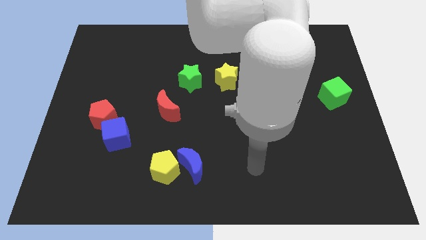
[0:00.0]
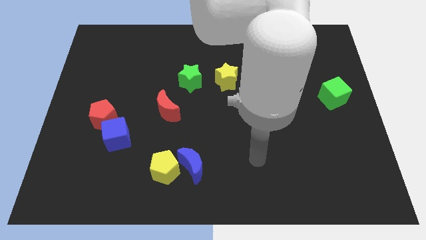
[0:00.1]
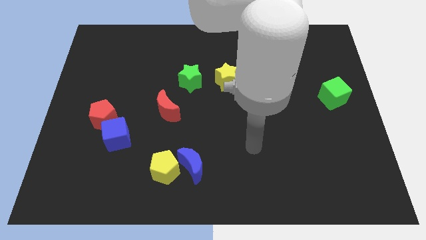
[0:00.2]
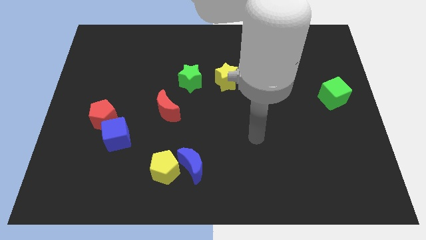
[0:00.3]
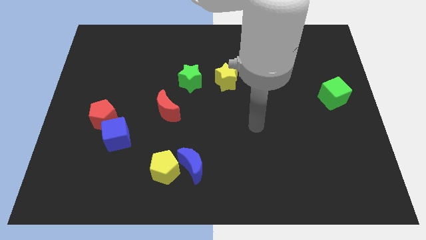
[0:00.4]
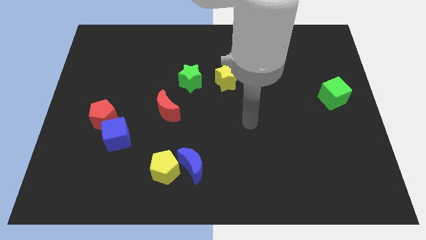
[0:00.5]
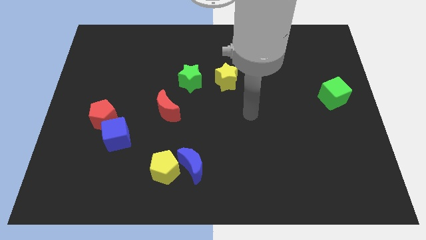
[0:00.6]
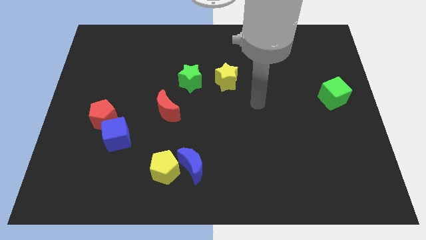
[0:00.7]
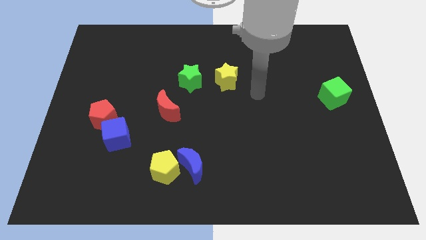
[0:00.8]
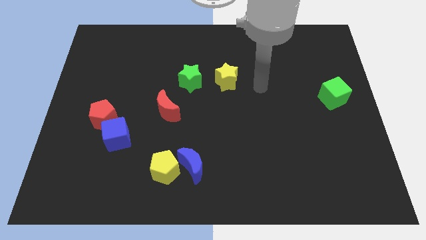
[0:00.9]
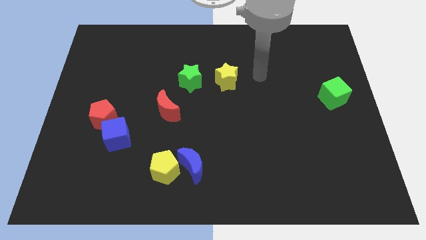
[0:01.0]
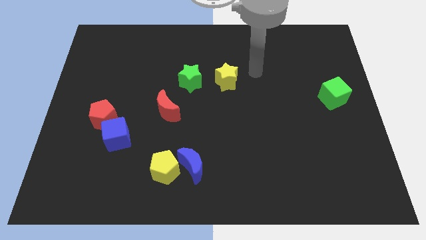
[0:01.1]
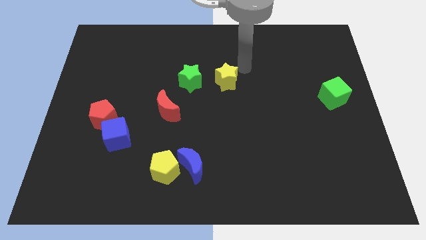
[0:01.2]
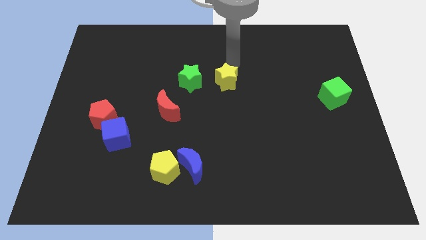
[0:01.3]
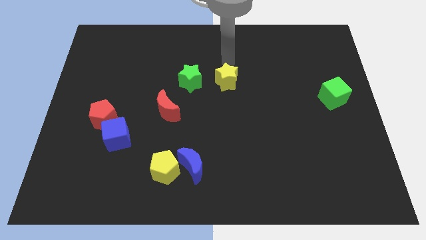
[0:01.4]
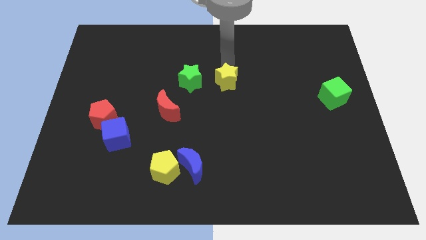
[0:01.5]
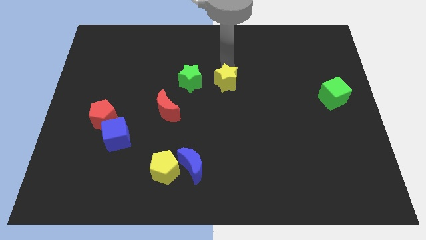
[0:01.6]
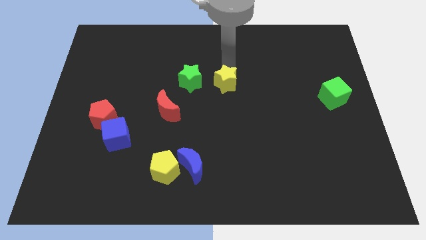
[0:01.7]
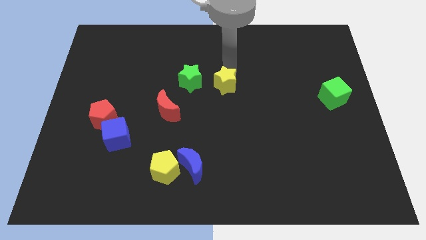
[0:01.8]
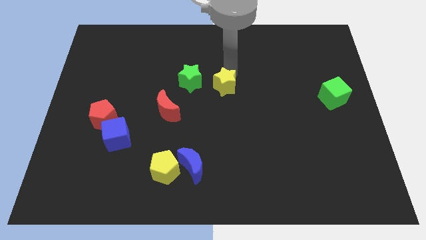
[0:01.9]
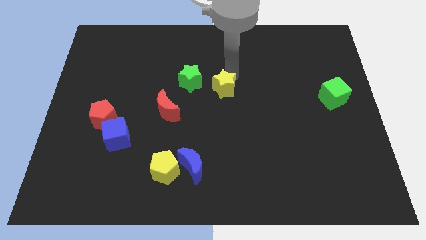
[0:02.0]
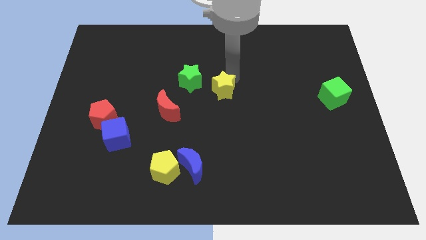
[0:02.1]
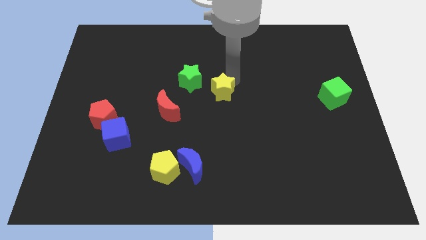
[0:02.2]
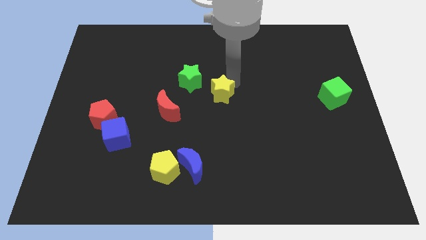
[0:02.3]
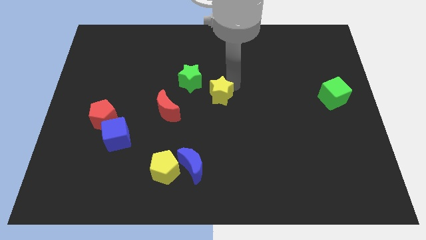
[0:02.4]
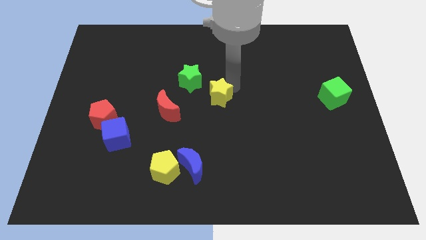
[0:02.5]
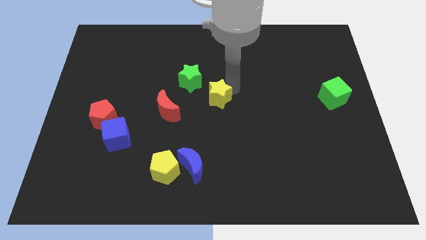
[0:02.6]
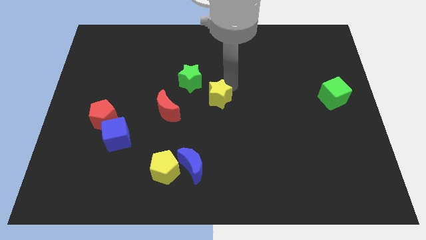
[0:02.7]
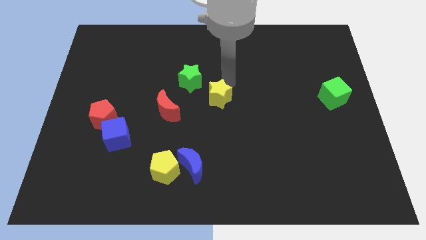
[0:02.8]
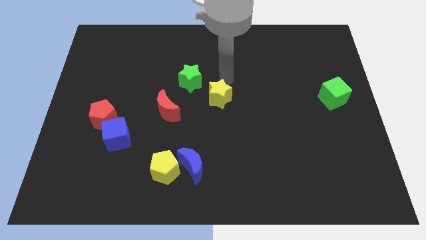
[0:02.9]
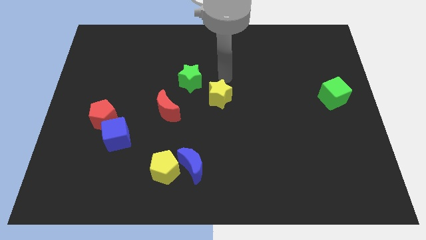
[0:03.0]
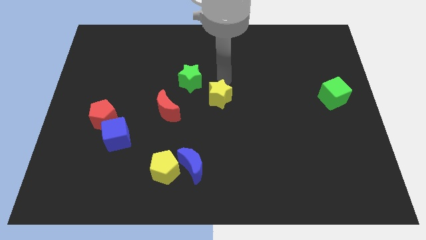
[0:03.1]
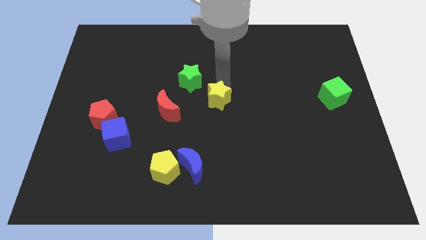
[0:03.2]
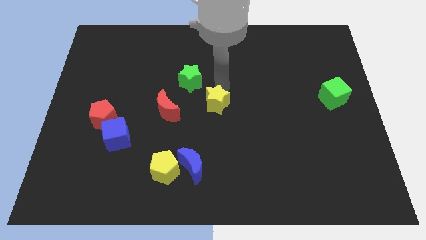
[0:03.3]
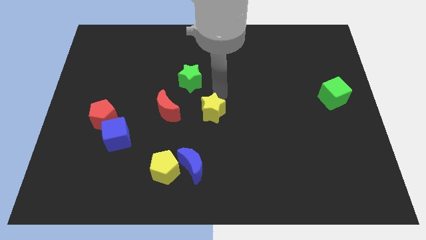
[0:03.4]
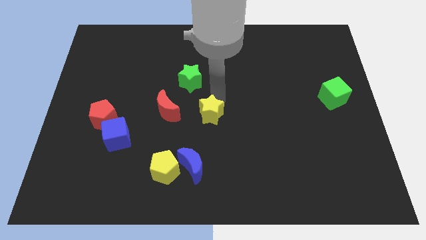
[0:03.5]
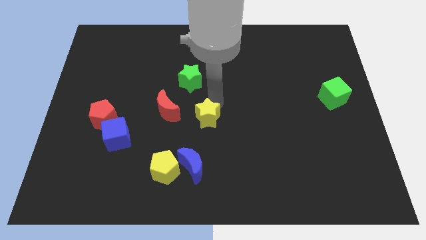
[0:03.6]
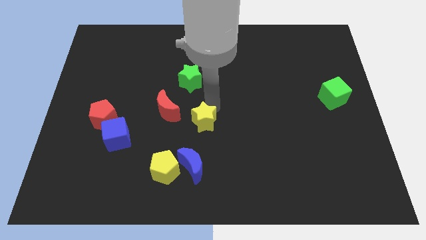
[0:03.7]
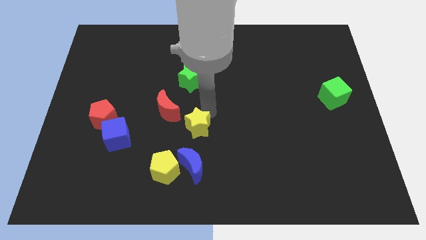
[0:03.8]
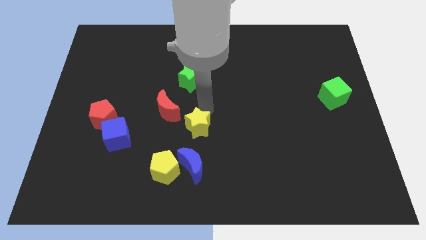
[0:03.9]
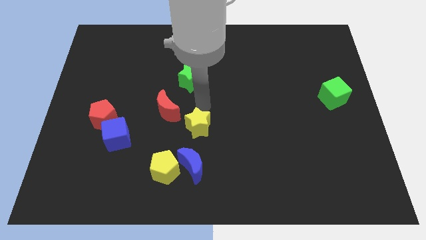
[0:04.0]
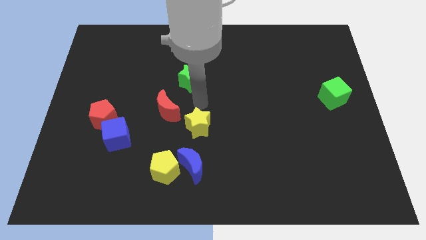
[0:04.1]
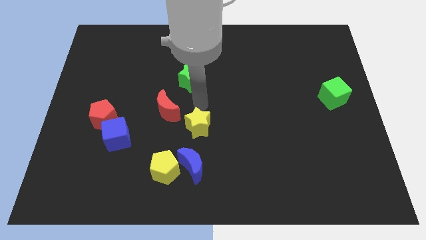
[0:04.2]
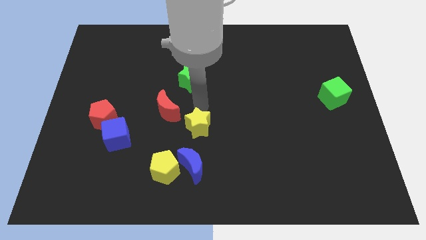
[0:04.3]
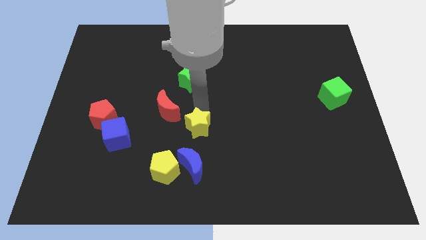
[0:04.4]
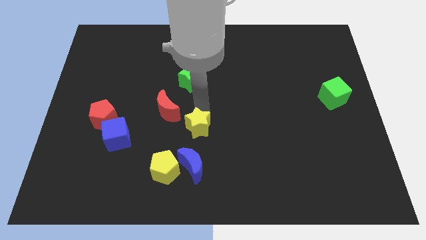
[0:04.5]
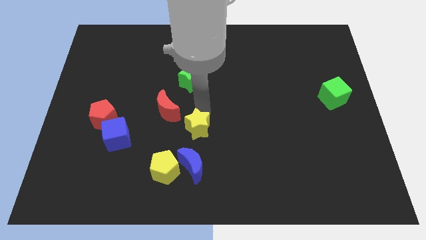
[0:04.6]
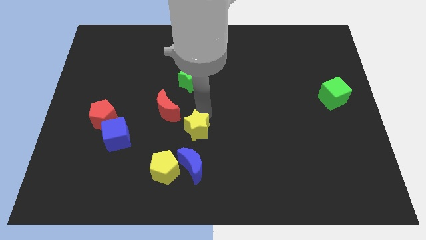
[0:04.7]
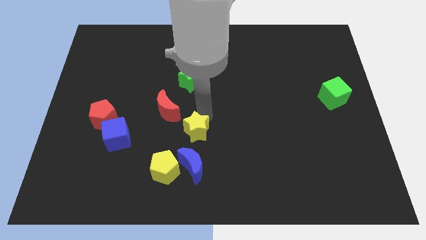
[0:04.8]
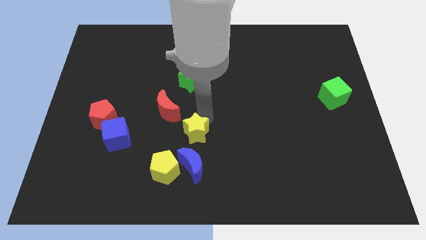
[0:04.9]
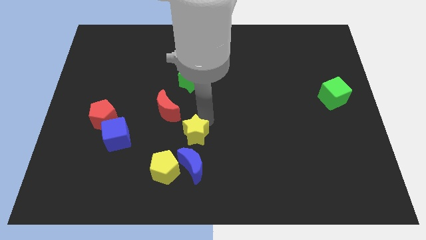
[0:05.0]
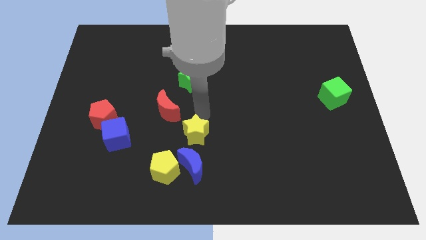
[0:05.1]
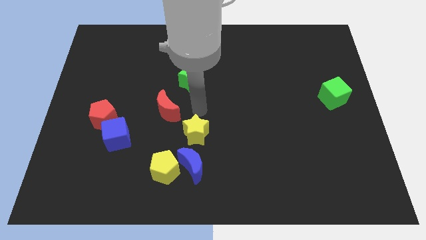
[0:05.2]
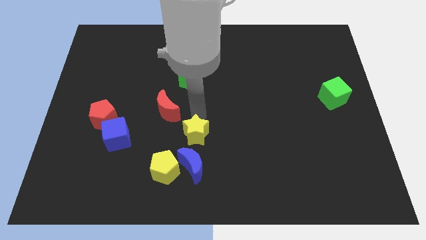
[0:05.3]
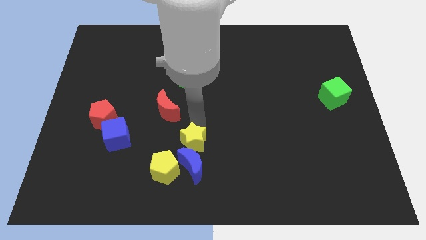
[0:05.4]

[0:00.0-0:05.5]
move the yellow star close to the blue moon

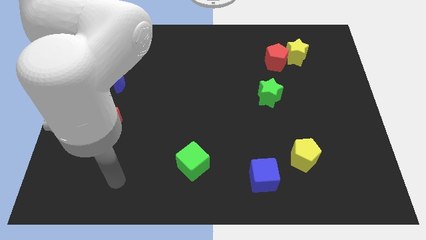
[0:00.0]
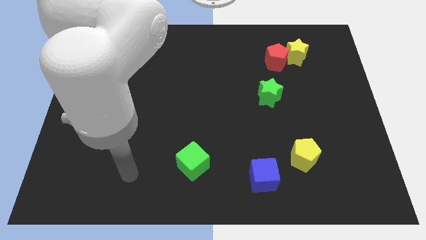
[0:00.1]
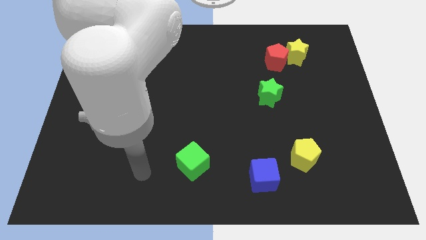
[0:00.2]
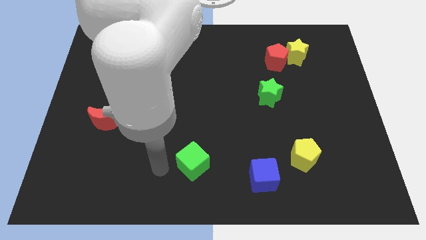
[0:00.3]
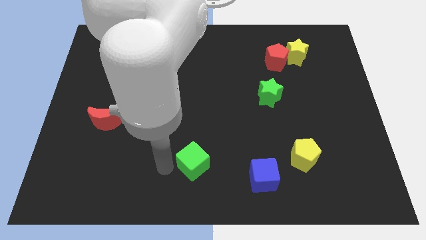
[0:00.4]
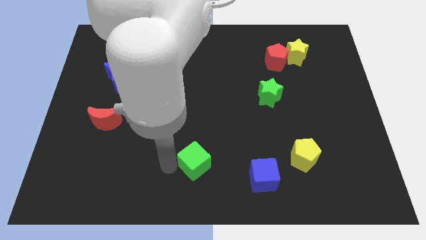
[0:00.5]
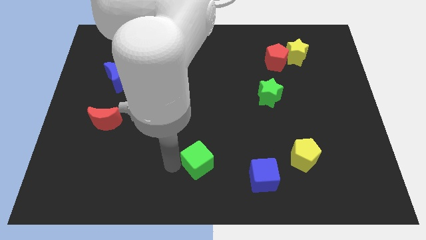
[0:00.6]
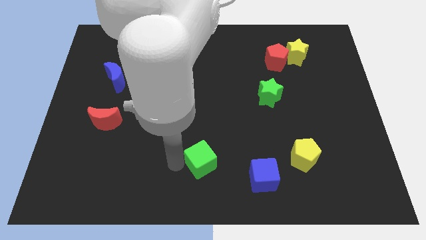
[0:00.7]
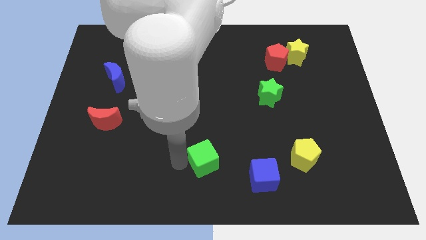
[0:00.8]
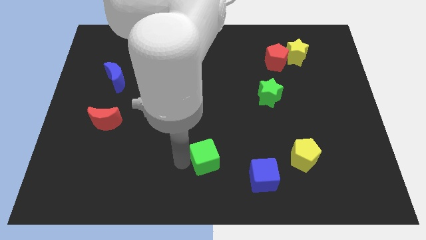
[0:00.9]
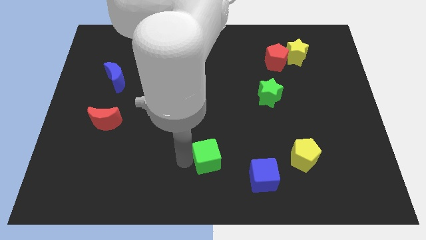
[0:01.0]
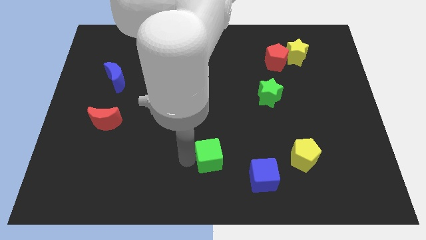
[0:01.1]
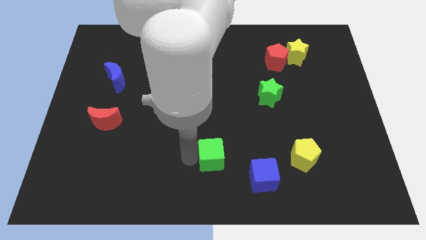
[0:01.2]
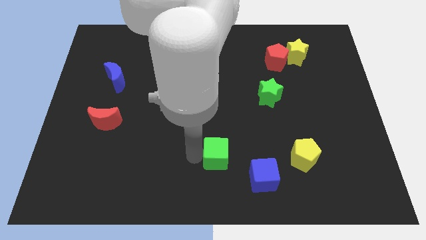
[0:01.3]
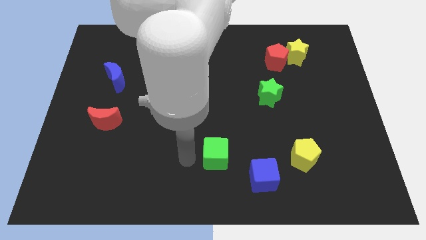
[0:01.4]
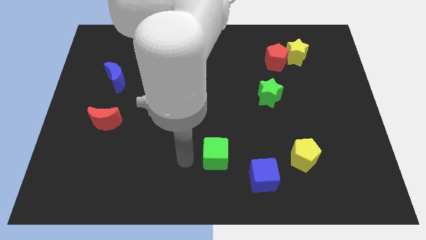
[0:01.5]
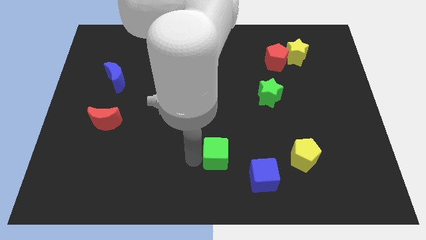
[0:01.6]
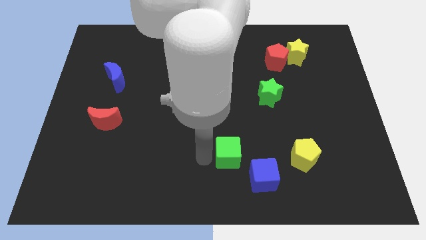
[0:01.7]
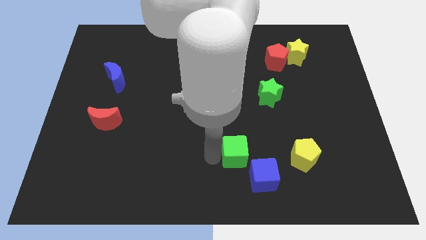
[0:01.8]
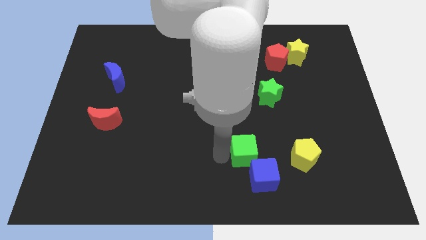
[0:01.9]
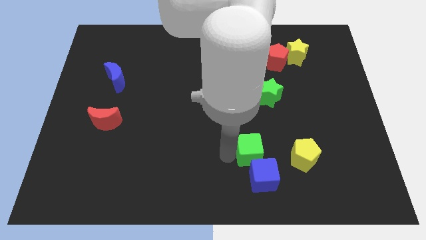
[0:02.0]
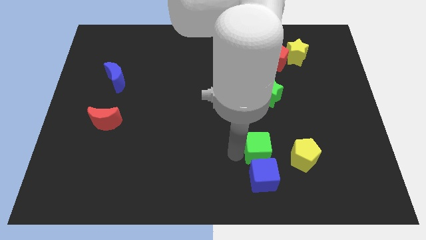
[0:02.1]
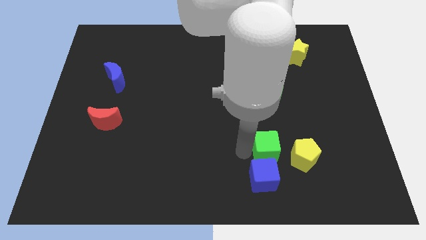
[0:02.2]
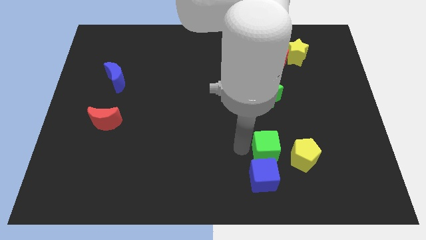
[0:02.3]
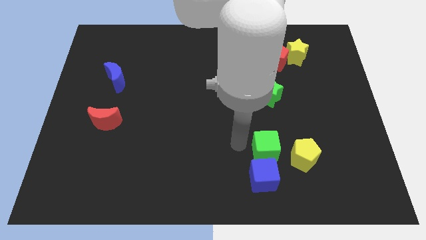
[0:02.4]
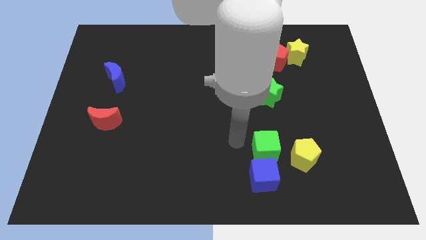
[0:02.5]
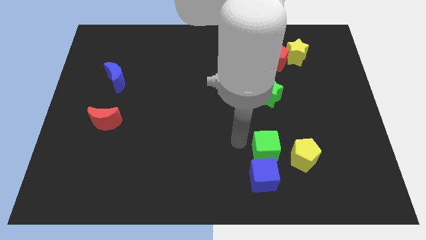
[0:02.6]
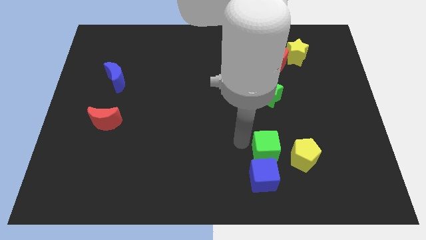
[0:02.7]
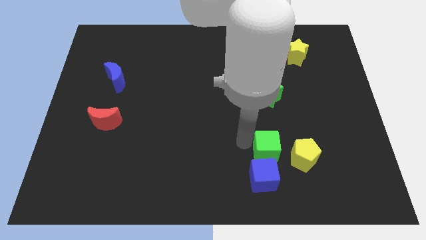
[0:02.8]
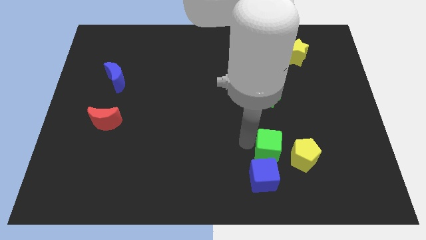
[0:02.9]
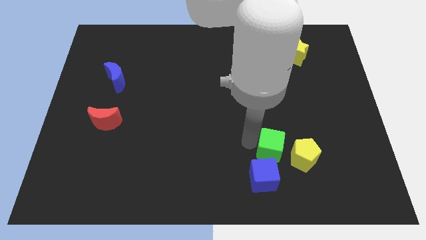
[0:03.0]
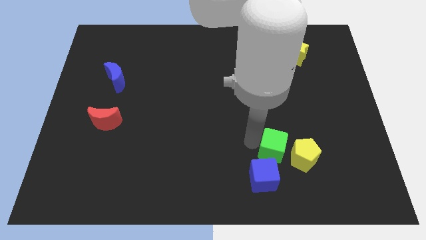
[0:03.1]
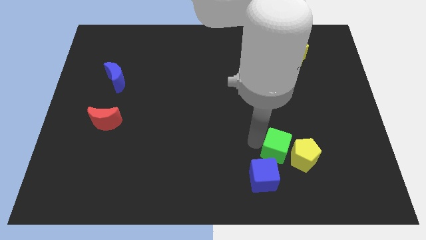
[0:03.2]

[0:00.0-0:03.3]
slide the green cube to the yellow pentagon

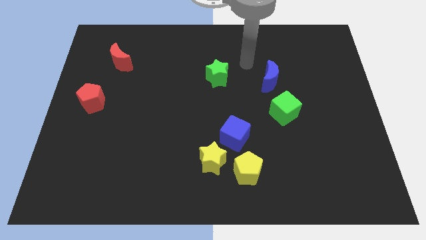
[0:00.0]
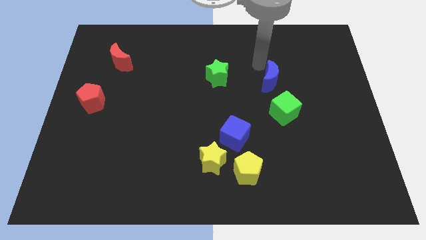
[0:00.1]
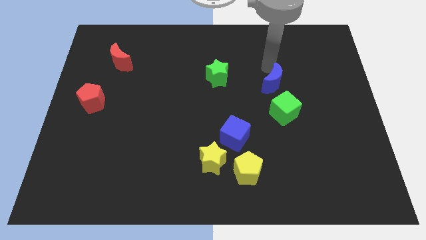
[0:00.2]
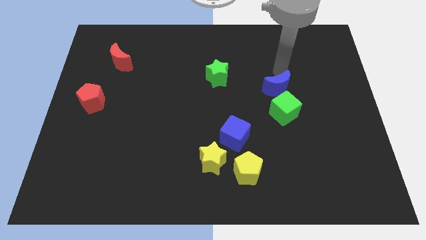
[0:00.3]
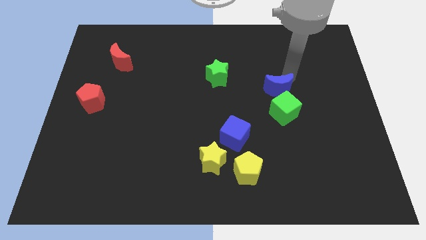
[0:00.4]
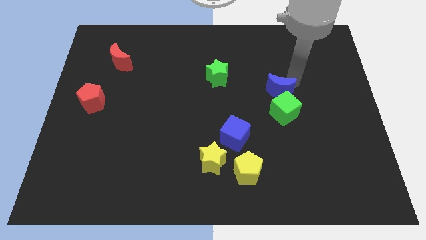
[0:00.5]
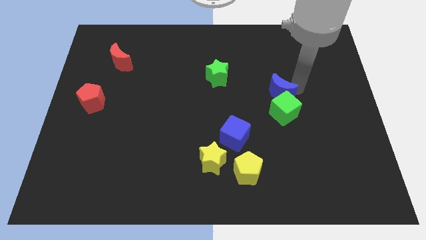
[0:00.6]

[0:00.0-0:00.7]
move the green cube next to the blue moon
